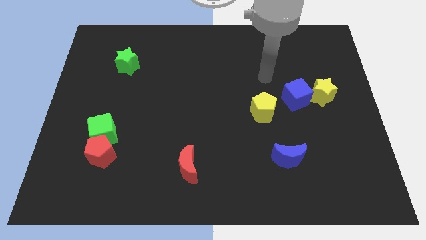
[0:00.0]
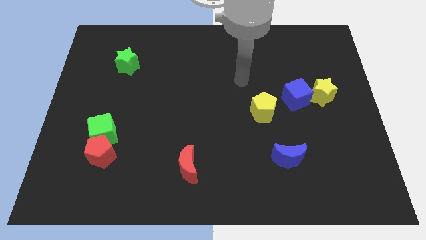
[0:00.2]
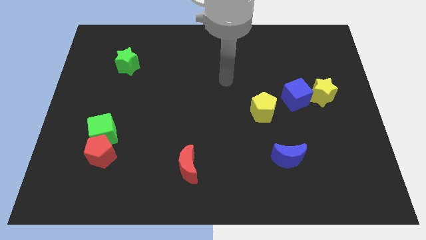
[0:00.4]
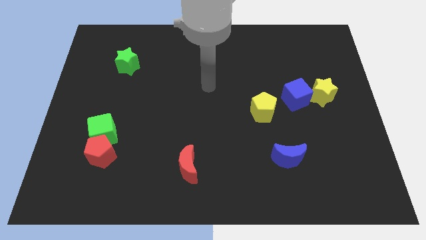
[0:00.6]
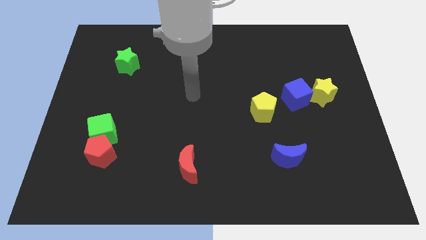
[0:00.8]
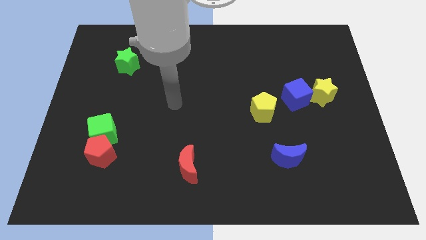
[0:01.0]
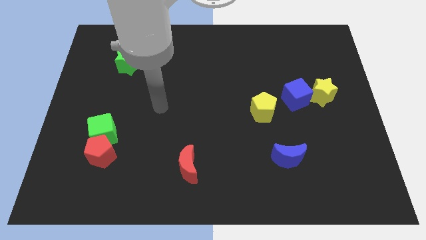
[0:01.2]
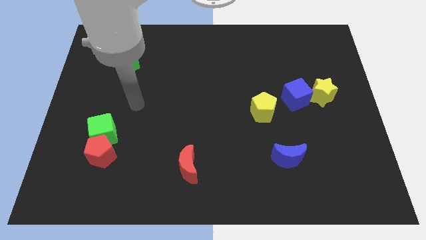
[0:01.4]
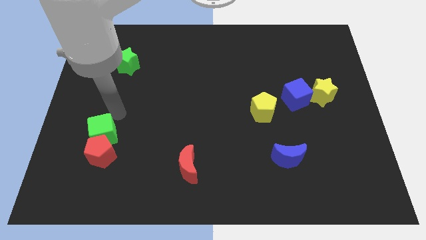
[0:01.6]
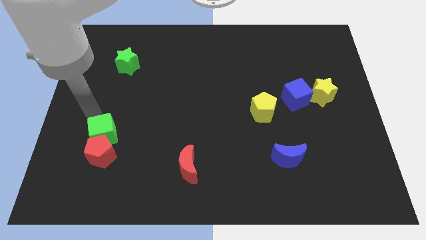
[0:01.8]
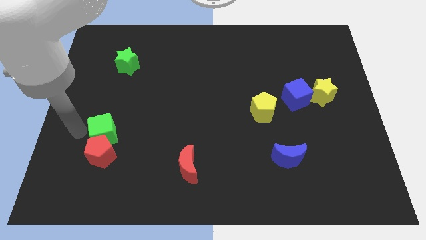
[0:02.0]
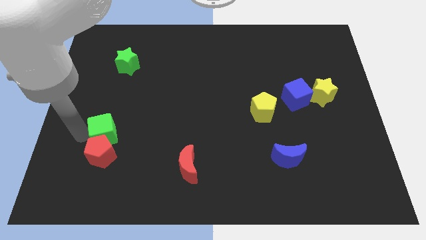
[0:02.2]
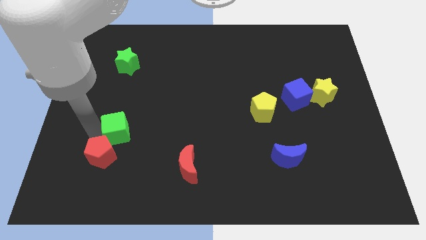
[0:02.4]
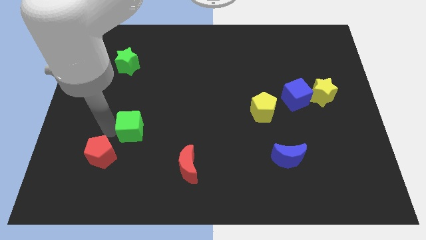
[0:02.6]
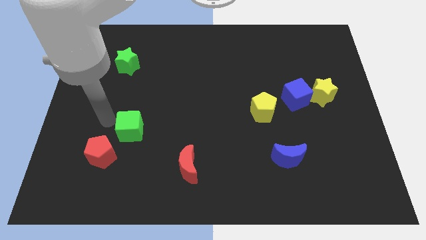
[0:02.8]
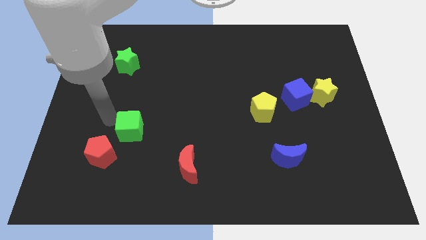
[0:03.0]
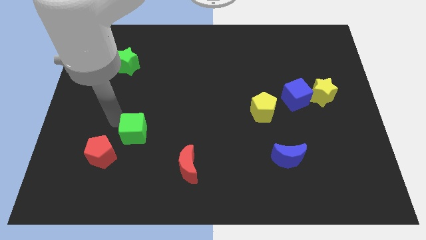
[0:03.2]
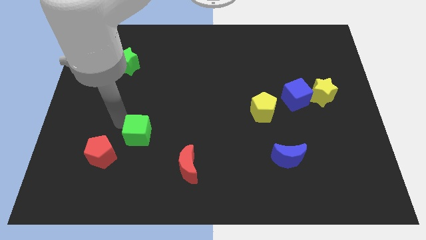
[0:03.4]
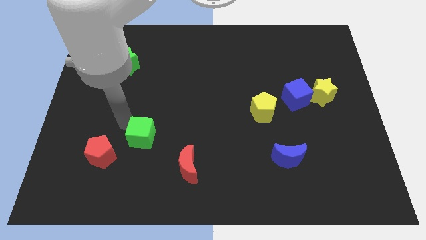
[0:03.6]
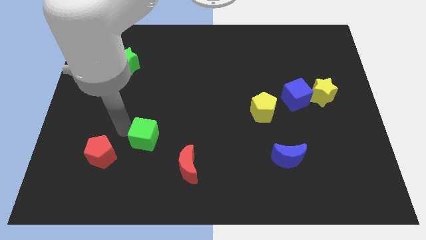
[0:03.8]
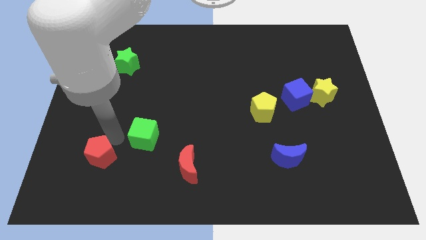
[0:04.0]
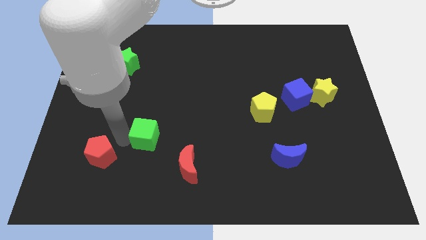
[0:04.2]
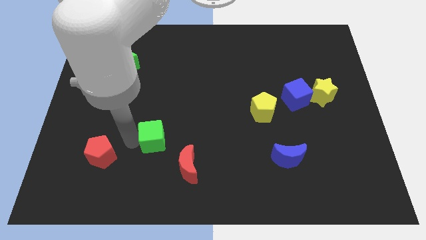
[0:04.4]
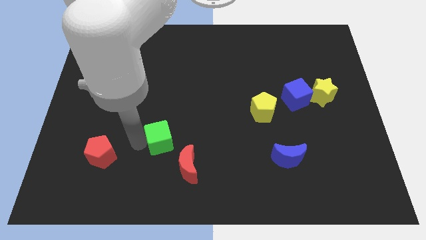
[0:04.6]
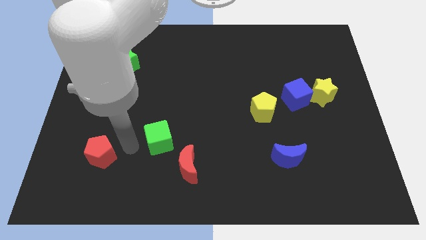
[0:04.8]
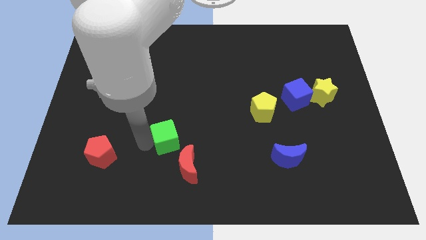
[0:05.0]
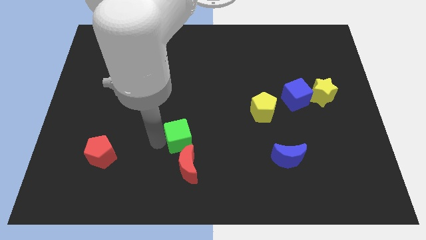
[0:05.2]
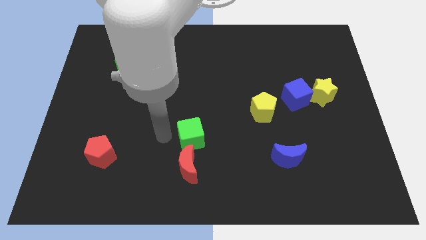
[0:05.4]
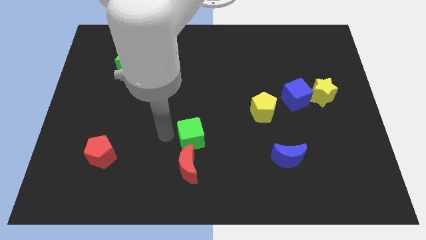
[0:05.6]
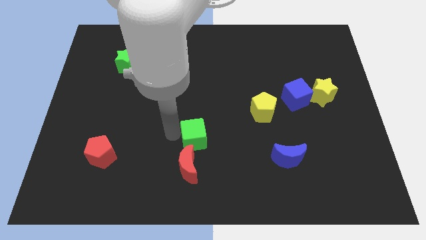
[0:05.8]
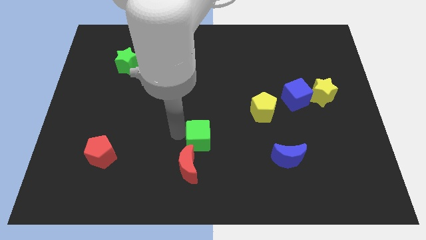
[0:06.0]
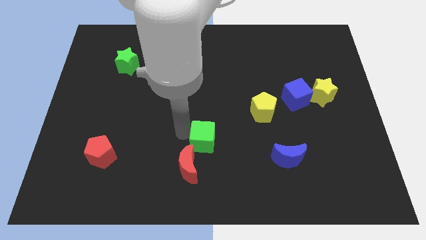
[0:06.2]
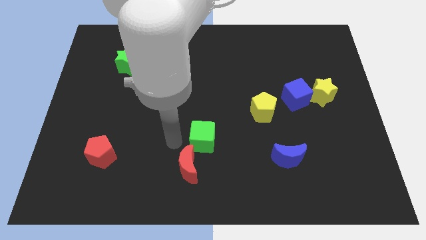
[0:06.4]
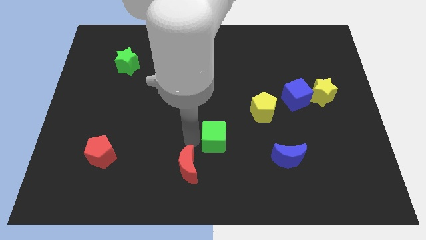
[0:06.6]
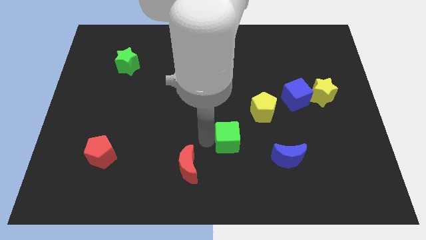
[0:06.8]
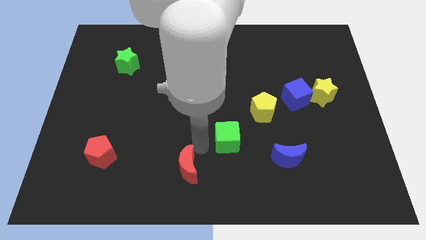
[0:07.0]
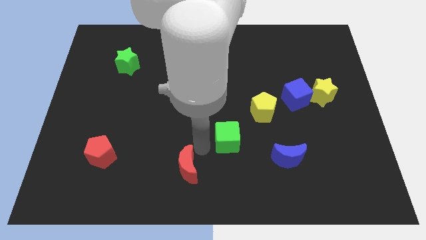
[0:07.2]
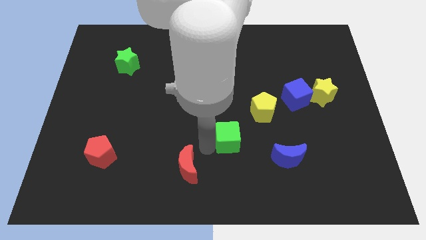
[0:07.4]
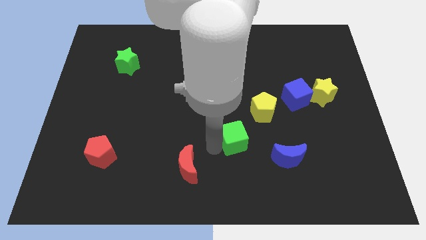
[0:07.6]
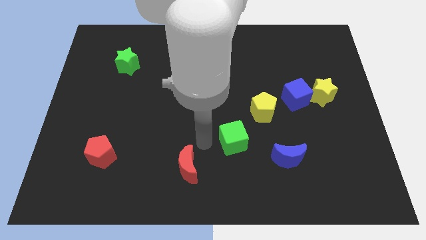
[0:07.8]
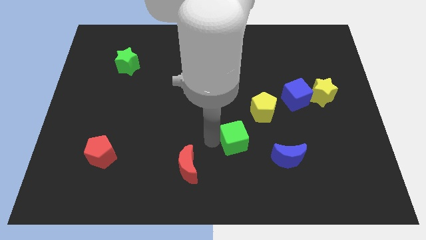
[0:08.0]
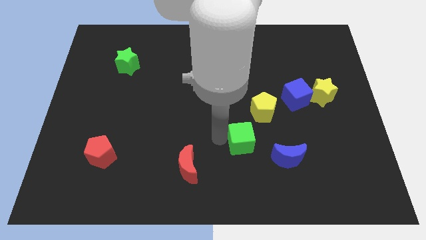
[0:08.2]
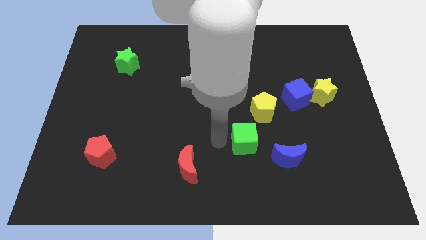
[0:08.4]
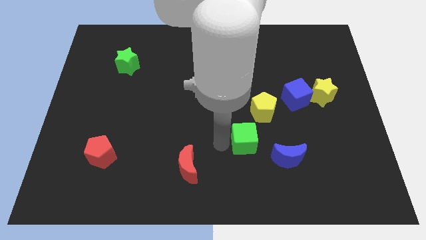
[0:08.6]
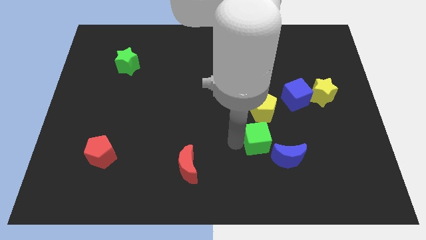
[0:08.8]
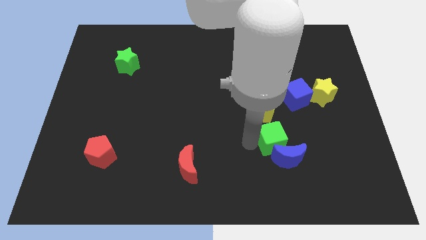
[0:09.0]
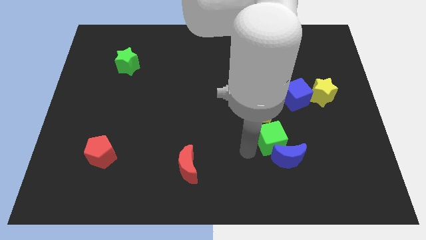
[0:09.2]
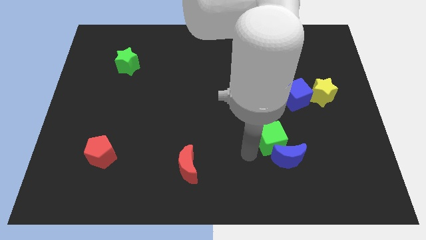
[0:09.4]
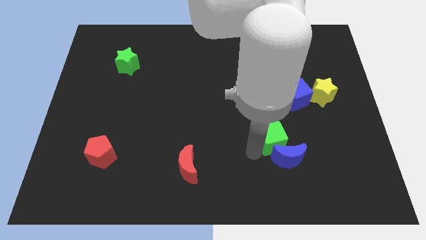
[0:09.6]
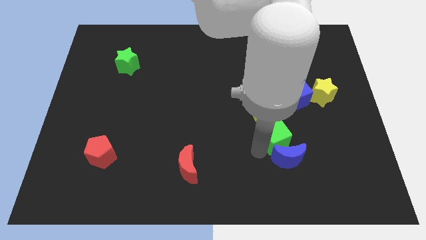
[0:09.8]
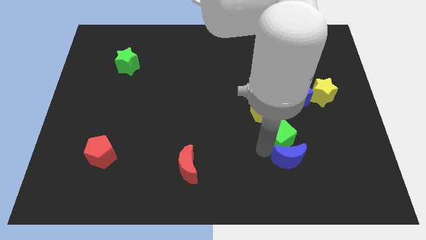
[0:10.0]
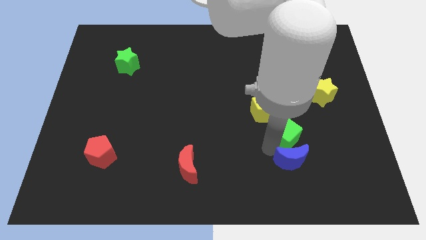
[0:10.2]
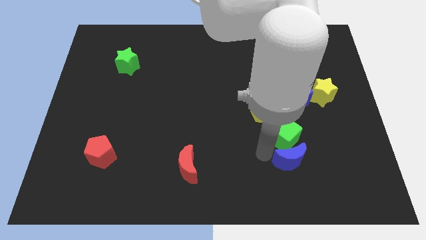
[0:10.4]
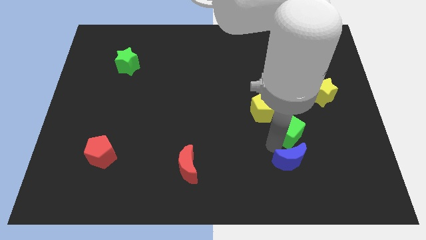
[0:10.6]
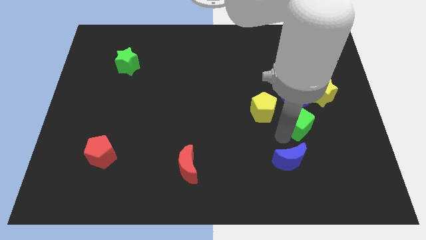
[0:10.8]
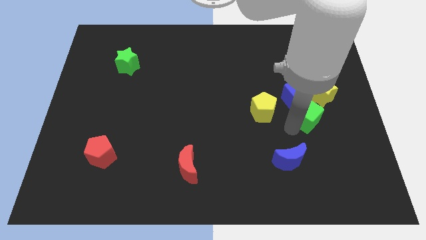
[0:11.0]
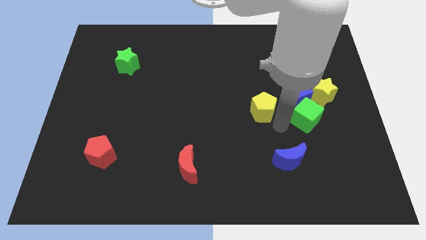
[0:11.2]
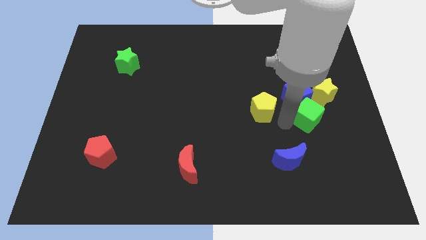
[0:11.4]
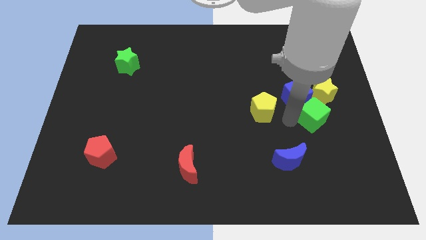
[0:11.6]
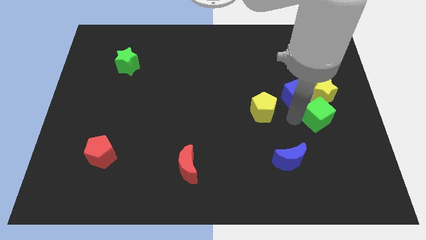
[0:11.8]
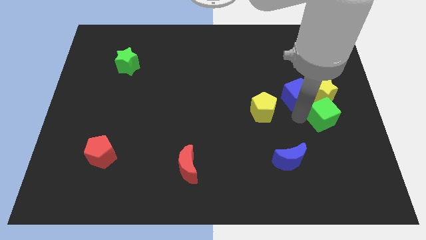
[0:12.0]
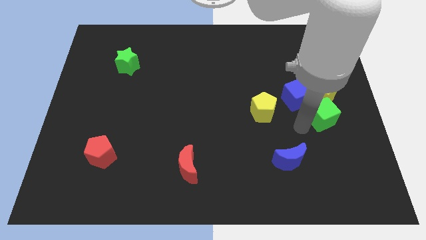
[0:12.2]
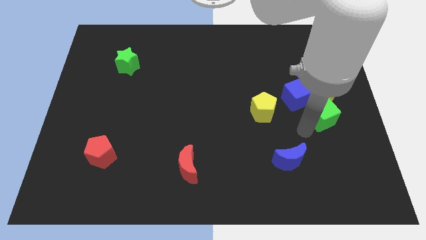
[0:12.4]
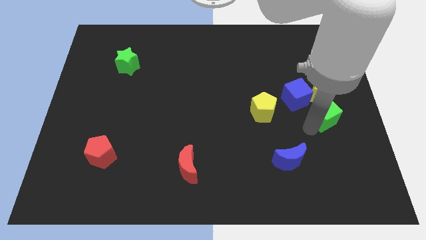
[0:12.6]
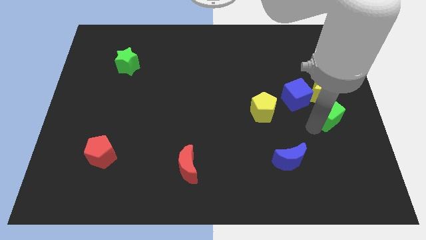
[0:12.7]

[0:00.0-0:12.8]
move the green cube to the center right
